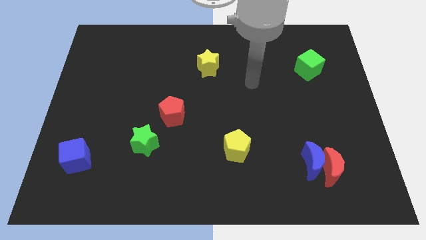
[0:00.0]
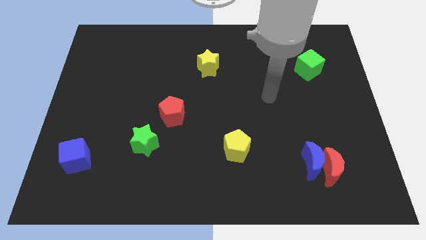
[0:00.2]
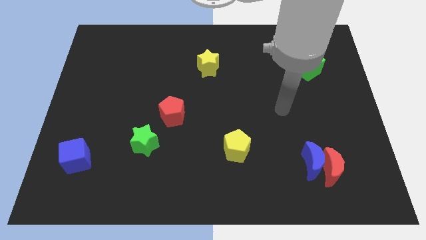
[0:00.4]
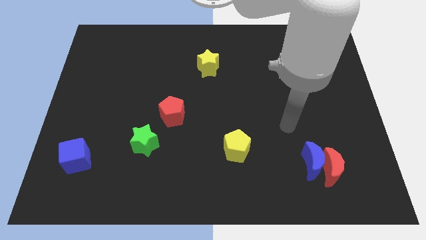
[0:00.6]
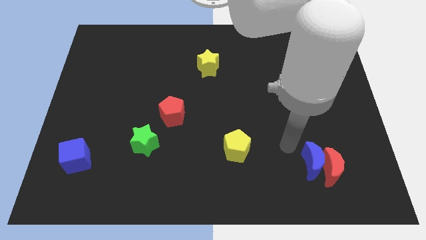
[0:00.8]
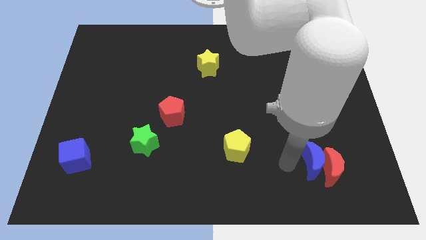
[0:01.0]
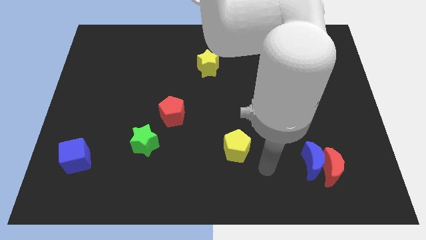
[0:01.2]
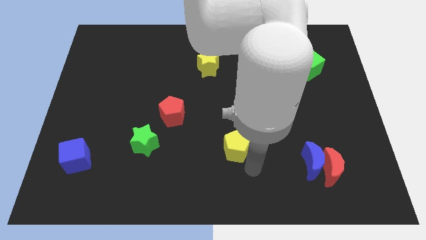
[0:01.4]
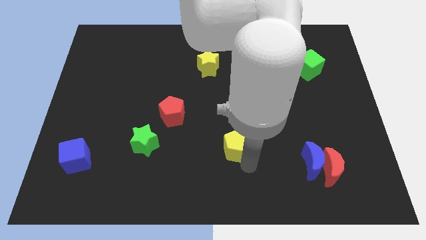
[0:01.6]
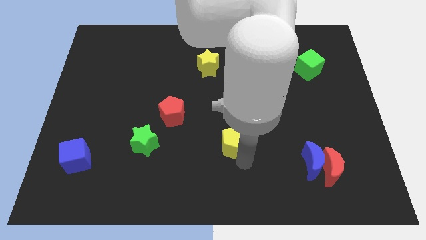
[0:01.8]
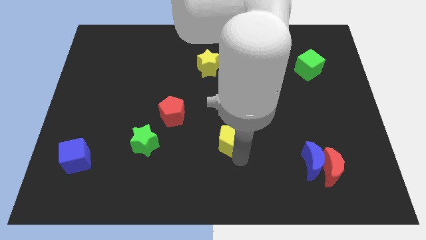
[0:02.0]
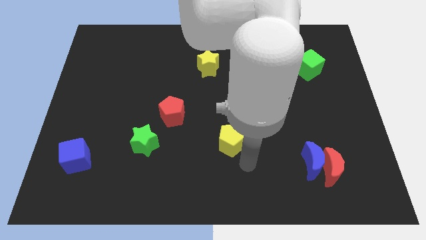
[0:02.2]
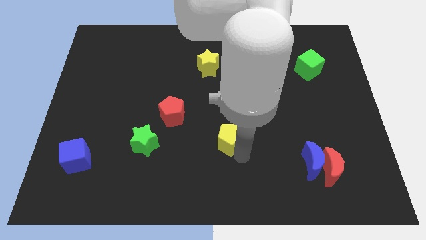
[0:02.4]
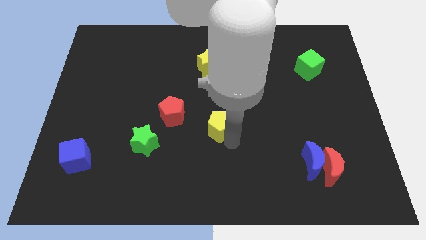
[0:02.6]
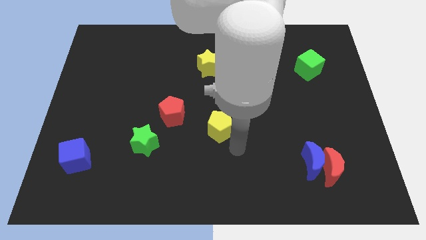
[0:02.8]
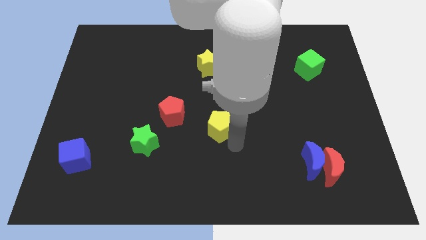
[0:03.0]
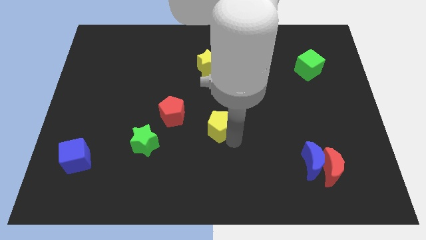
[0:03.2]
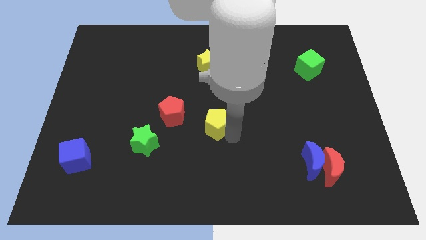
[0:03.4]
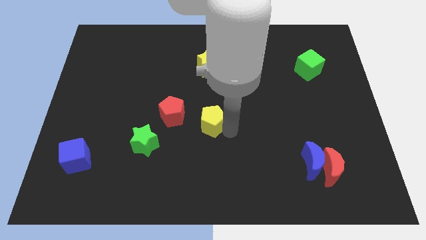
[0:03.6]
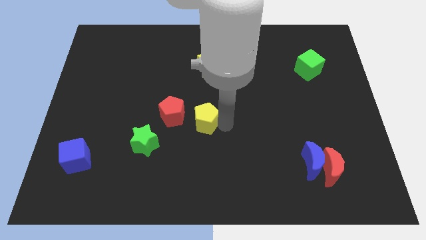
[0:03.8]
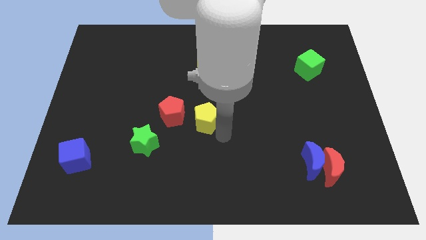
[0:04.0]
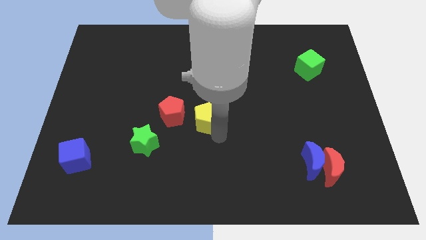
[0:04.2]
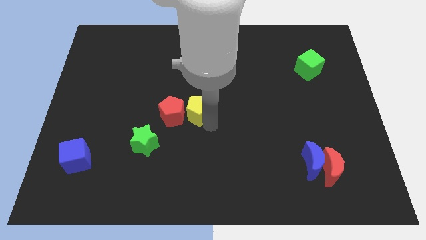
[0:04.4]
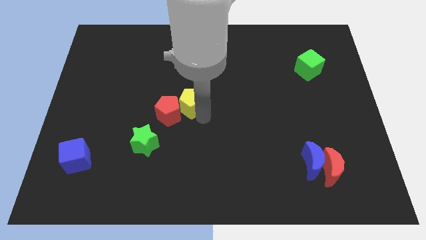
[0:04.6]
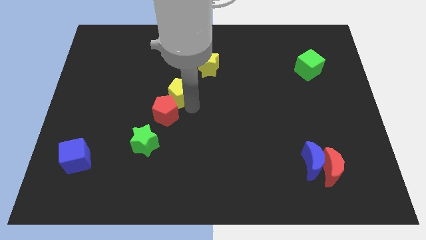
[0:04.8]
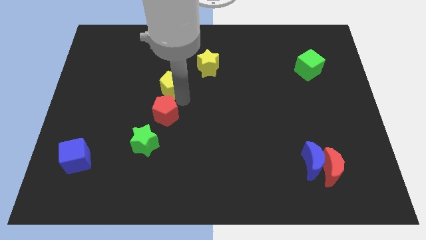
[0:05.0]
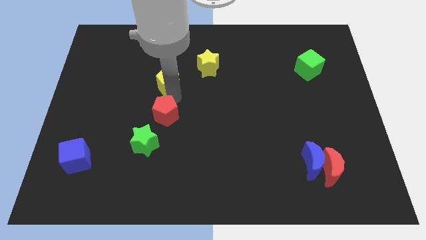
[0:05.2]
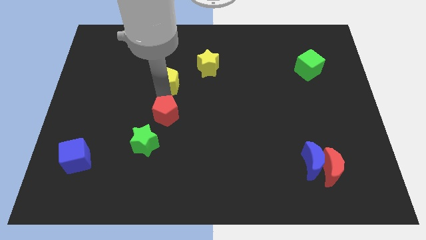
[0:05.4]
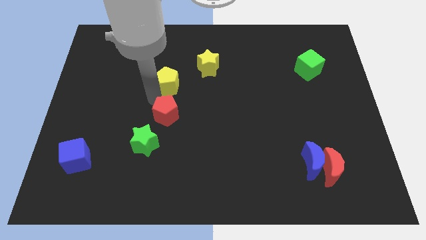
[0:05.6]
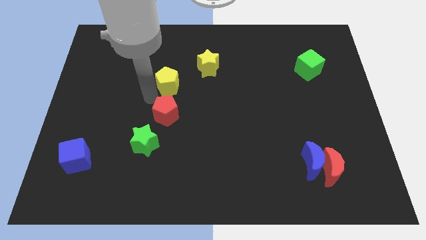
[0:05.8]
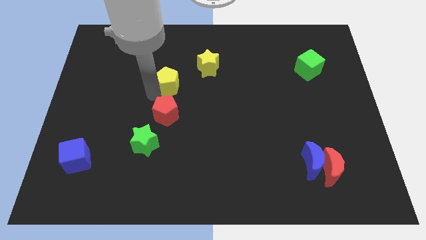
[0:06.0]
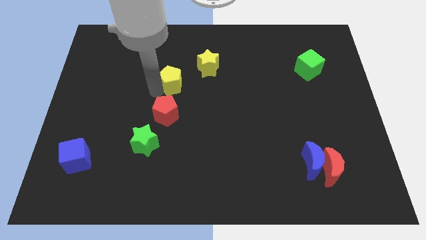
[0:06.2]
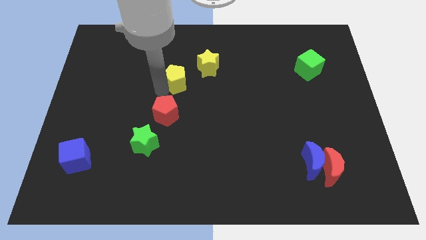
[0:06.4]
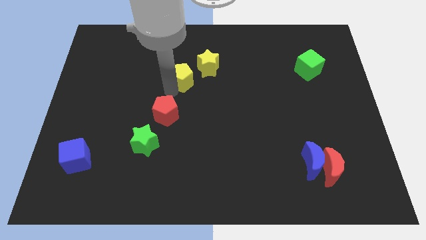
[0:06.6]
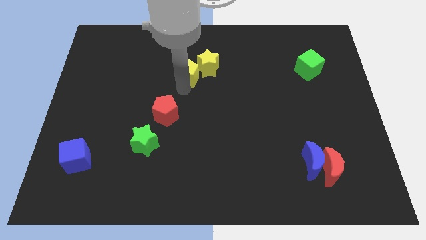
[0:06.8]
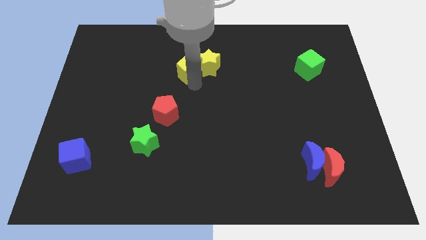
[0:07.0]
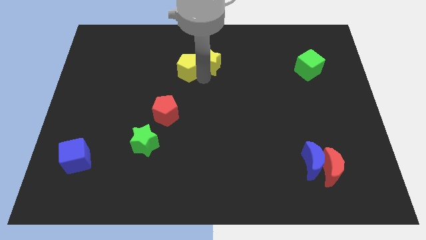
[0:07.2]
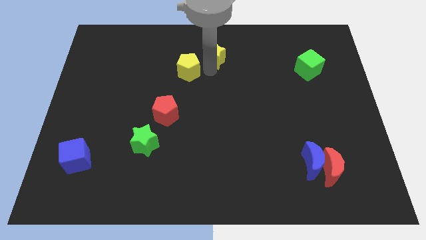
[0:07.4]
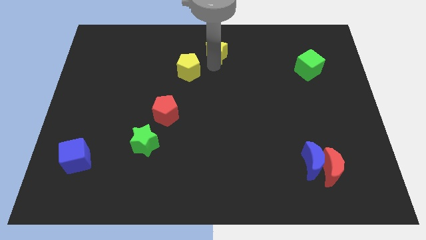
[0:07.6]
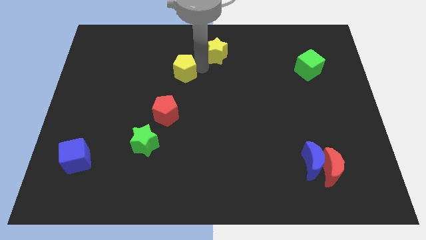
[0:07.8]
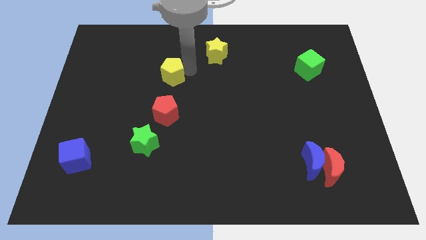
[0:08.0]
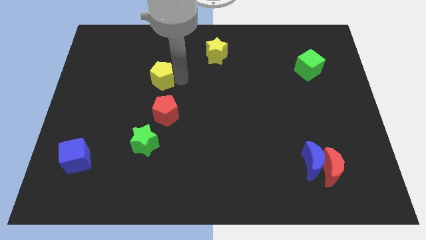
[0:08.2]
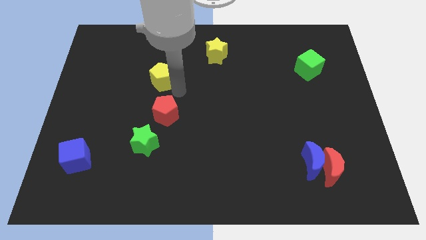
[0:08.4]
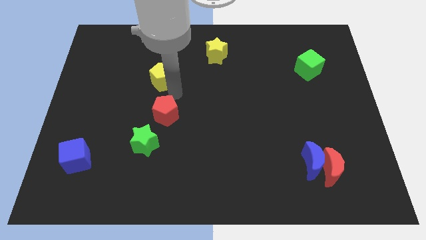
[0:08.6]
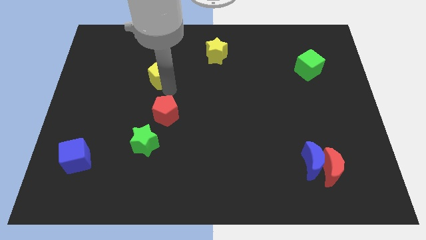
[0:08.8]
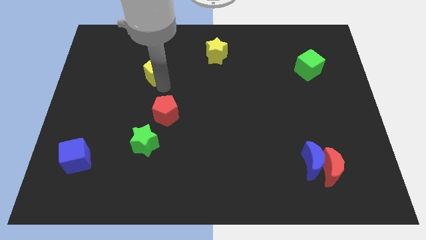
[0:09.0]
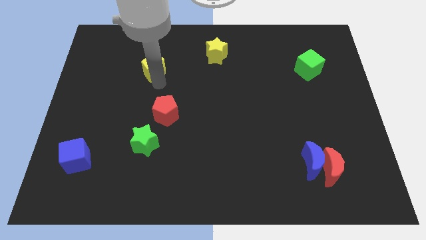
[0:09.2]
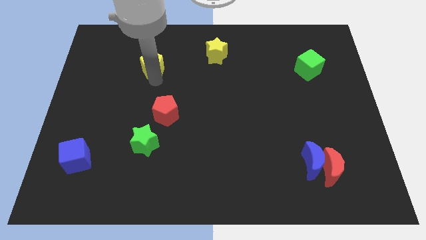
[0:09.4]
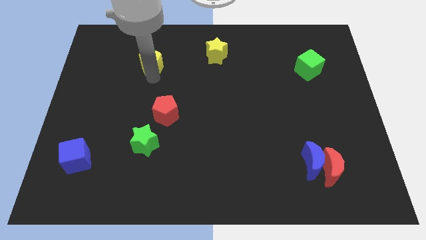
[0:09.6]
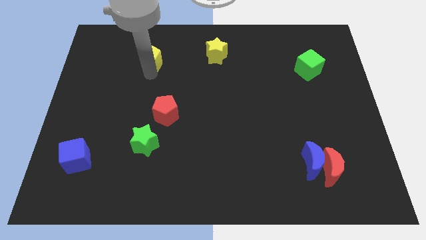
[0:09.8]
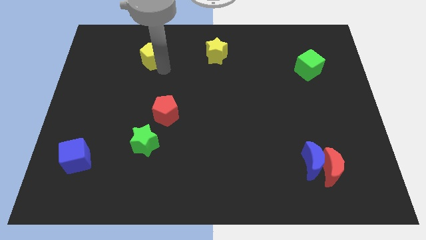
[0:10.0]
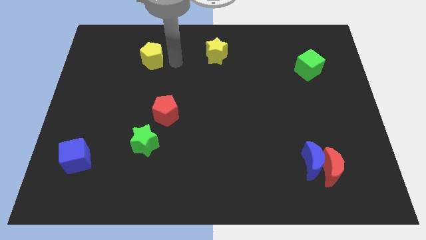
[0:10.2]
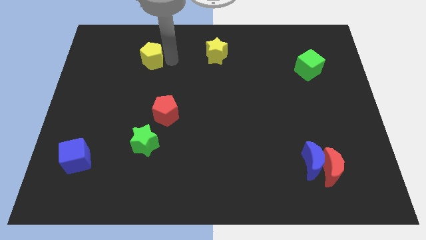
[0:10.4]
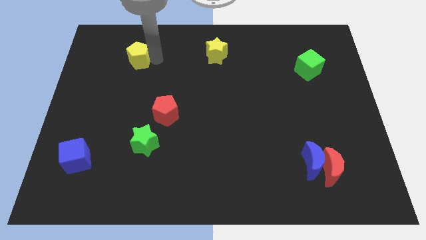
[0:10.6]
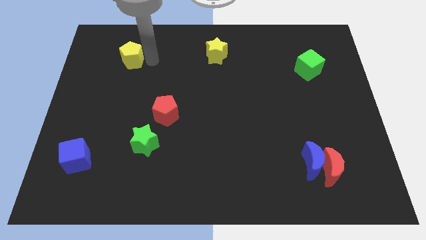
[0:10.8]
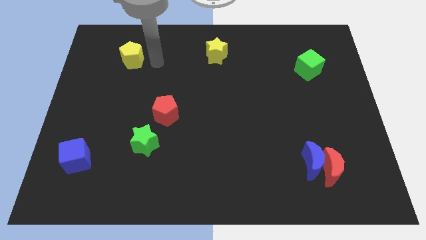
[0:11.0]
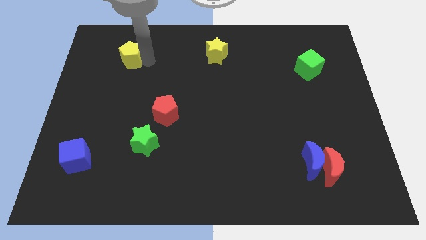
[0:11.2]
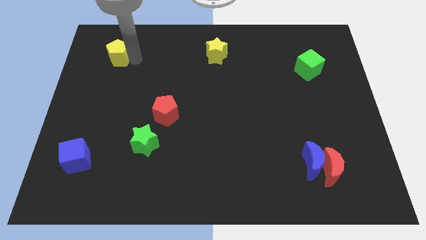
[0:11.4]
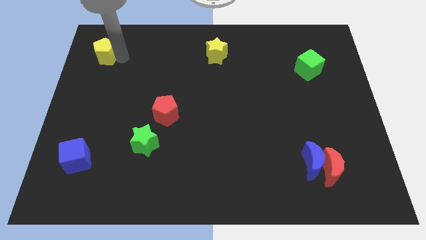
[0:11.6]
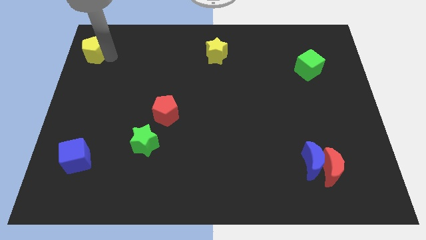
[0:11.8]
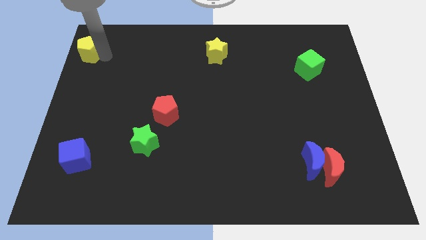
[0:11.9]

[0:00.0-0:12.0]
put the yellow pentagon to the top left

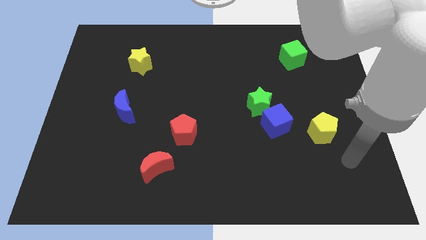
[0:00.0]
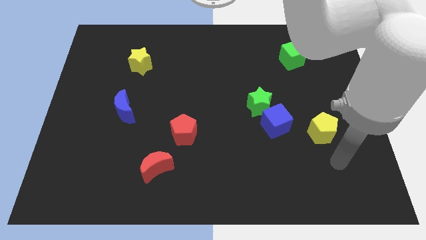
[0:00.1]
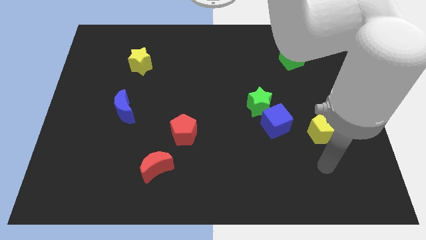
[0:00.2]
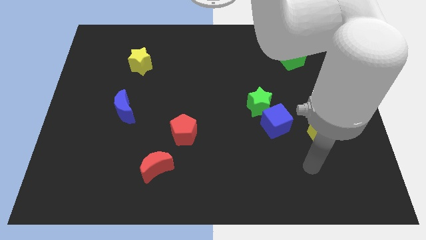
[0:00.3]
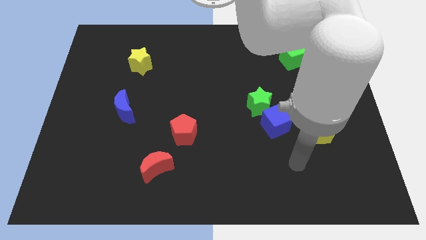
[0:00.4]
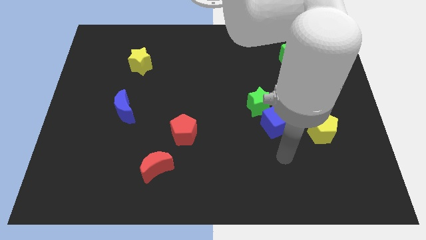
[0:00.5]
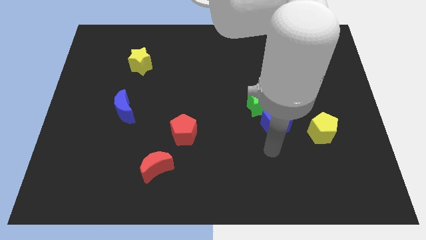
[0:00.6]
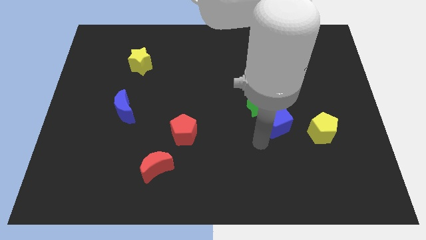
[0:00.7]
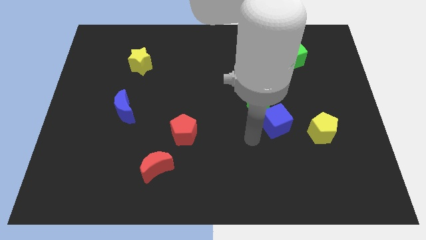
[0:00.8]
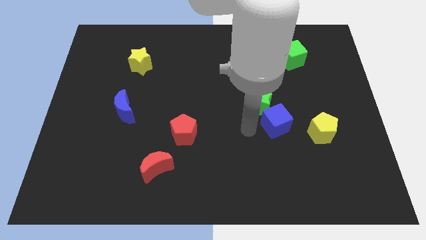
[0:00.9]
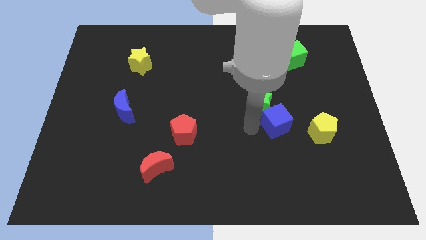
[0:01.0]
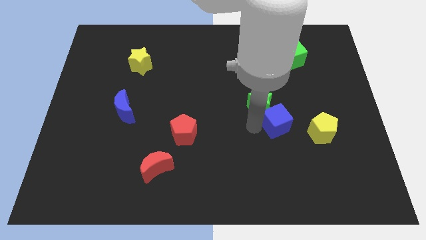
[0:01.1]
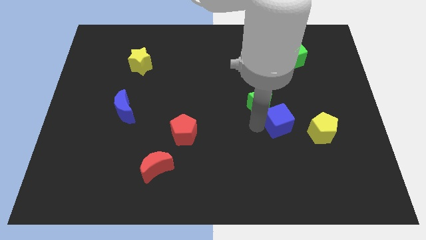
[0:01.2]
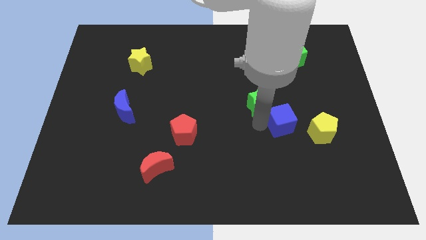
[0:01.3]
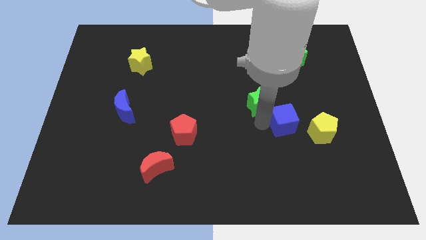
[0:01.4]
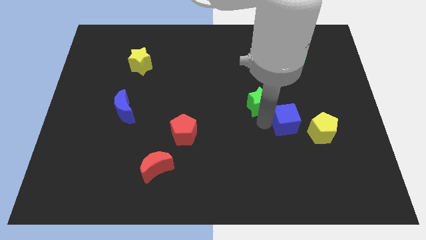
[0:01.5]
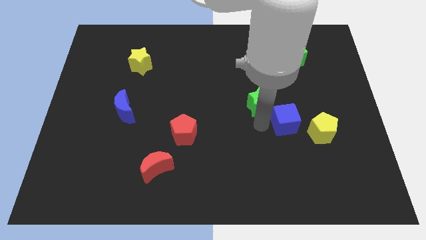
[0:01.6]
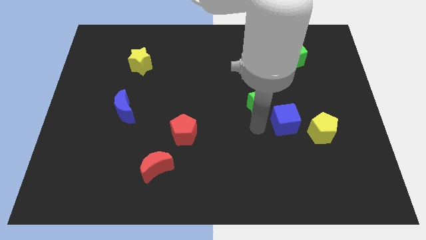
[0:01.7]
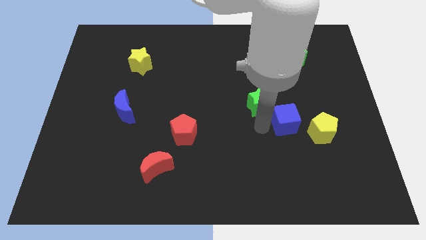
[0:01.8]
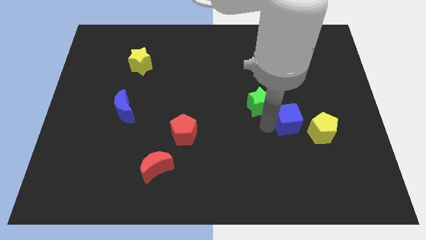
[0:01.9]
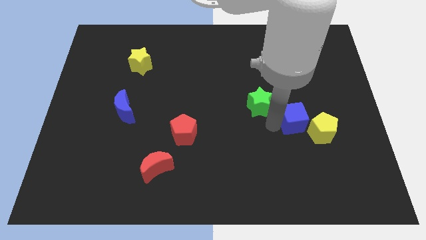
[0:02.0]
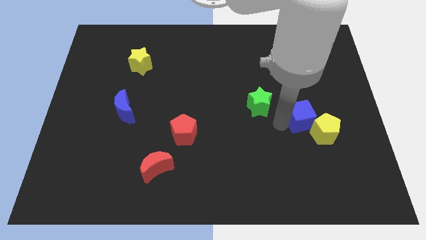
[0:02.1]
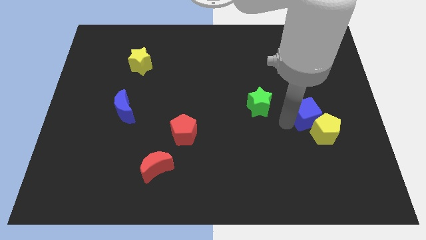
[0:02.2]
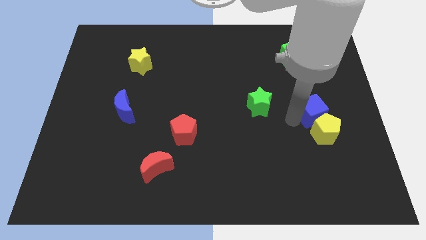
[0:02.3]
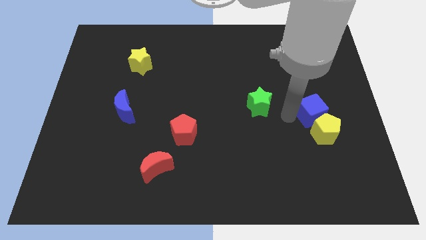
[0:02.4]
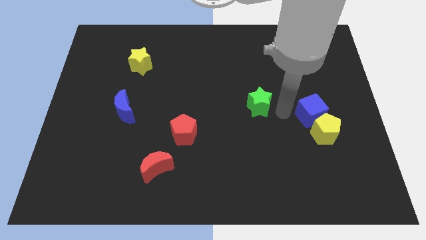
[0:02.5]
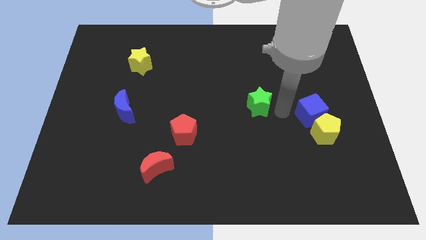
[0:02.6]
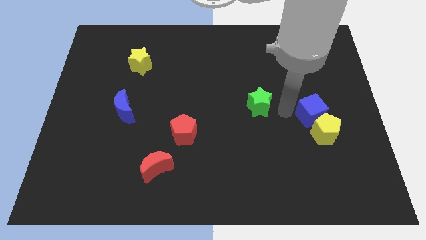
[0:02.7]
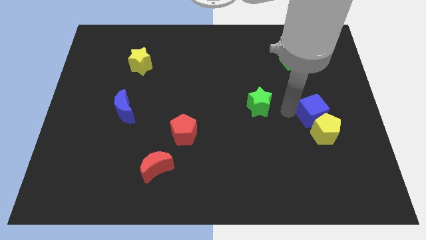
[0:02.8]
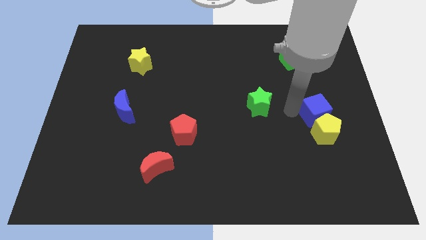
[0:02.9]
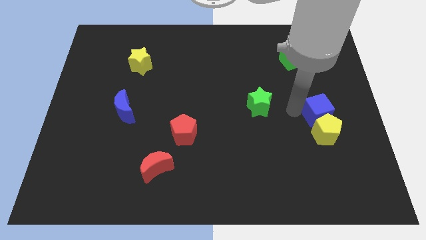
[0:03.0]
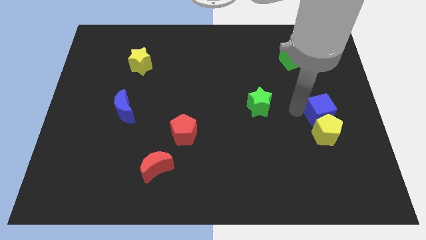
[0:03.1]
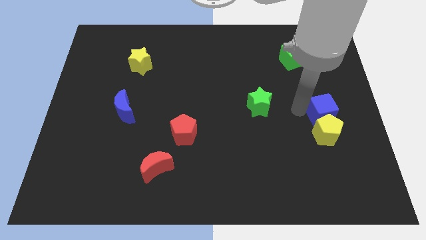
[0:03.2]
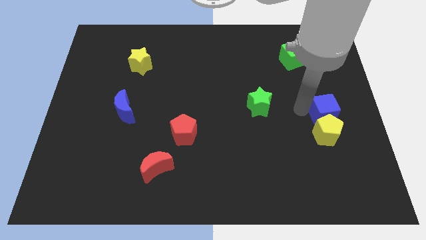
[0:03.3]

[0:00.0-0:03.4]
move the blue cube to the right side of the board
